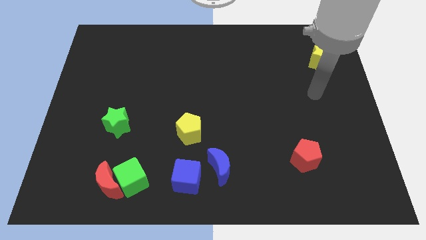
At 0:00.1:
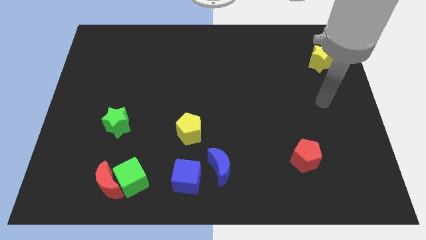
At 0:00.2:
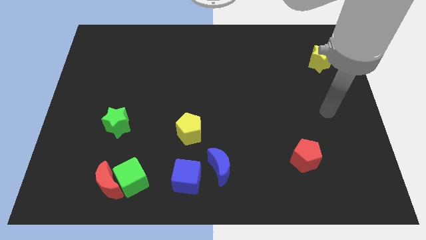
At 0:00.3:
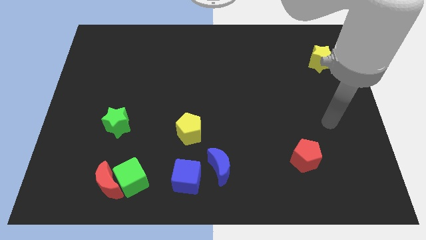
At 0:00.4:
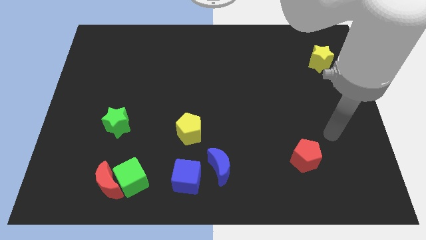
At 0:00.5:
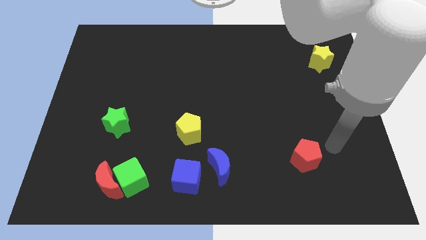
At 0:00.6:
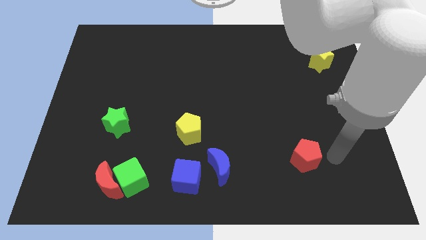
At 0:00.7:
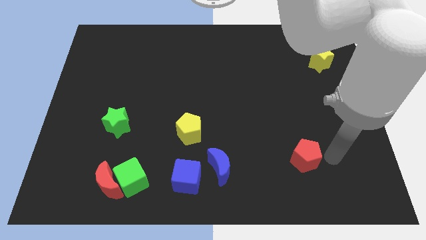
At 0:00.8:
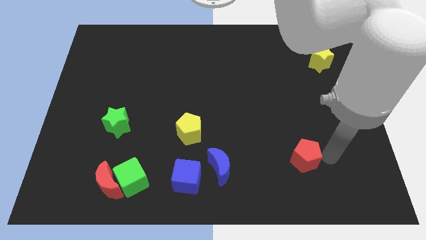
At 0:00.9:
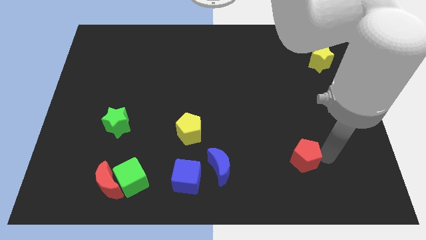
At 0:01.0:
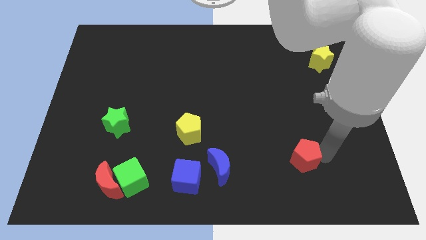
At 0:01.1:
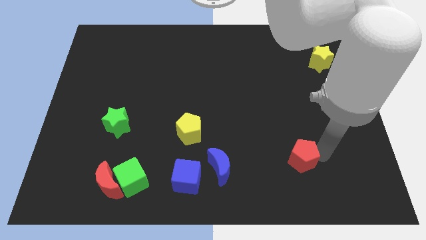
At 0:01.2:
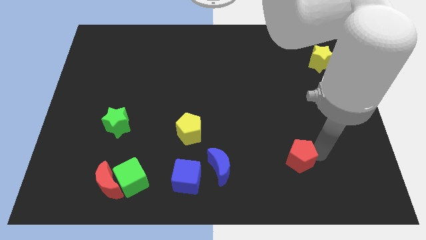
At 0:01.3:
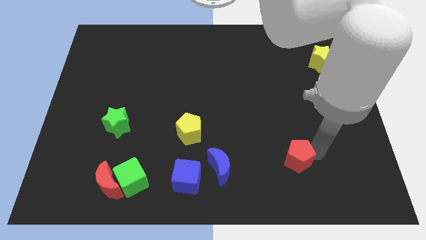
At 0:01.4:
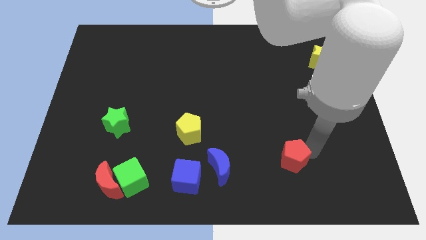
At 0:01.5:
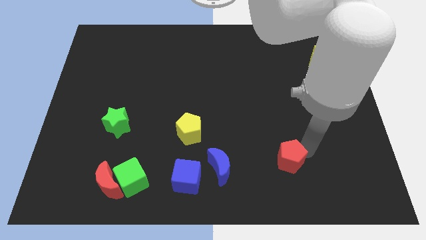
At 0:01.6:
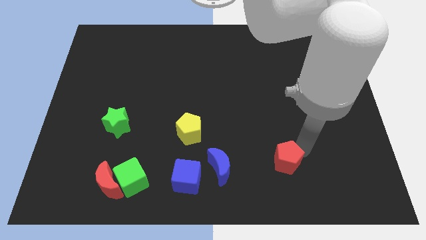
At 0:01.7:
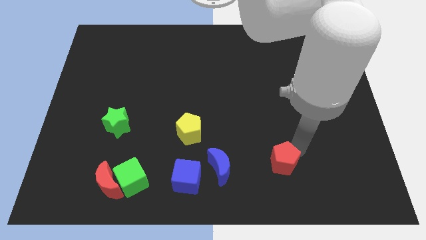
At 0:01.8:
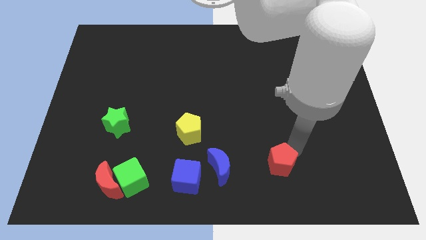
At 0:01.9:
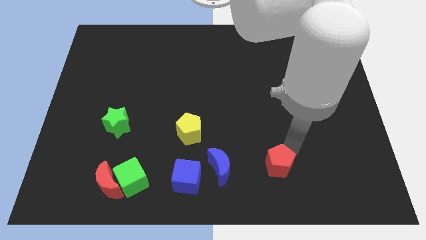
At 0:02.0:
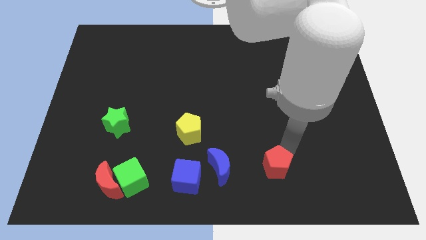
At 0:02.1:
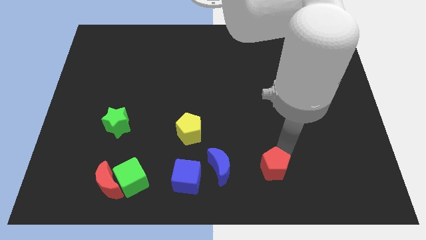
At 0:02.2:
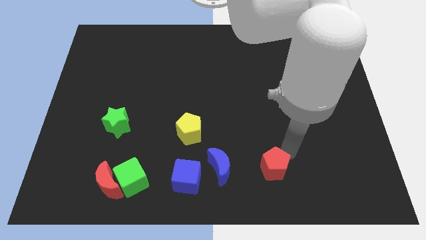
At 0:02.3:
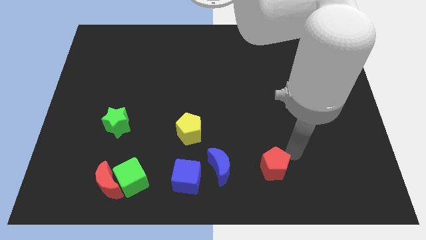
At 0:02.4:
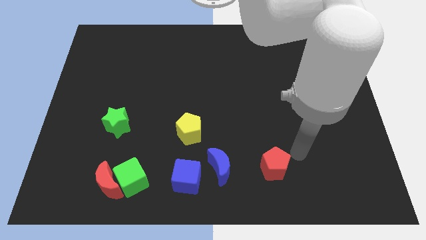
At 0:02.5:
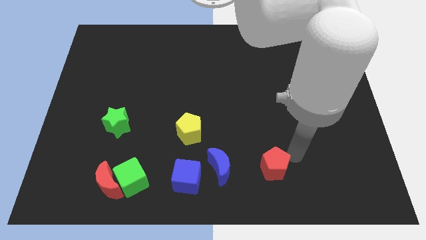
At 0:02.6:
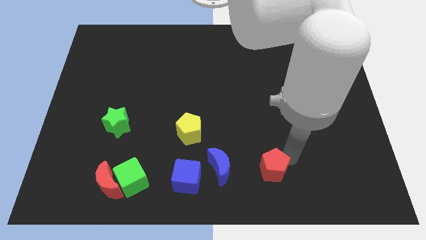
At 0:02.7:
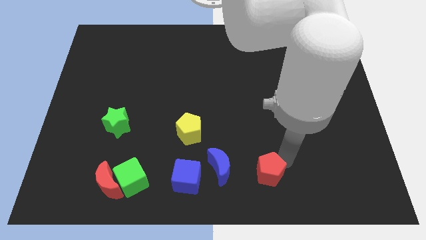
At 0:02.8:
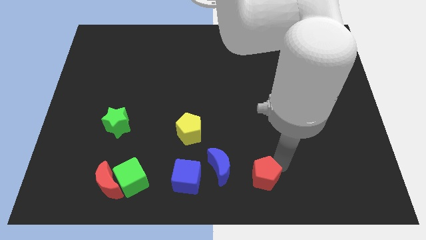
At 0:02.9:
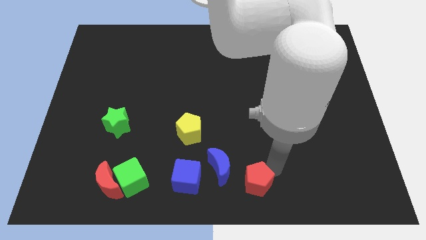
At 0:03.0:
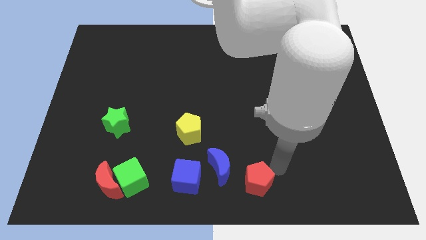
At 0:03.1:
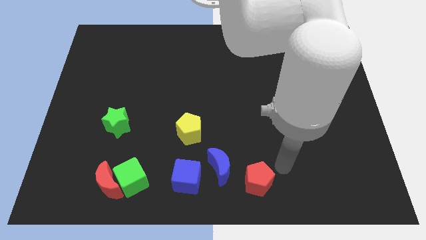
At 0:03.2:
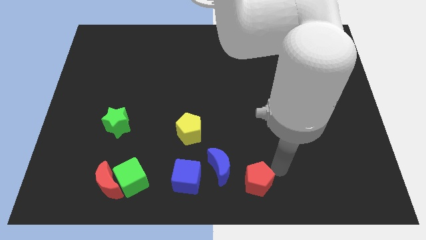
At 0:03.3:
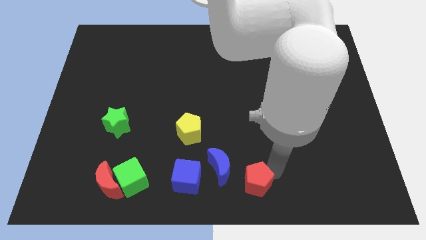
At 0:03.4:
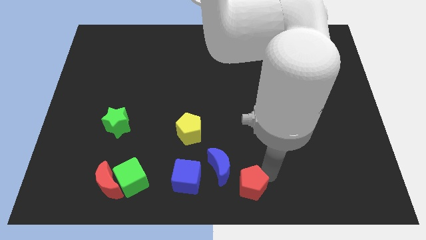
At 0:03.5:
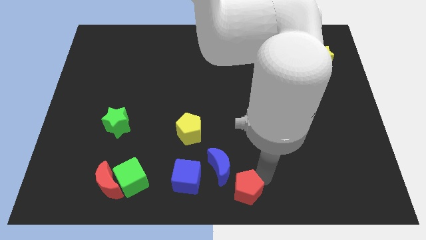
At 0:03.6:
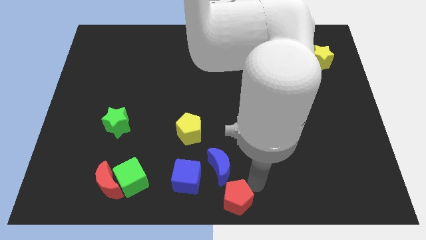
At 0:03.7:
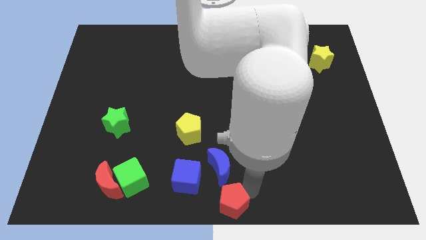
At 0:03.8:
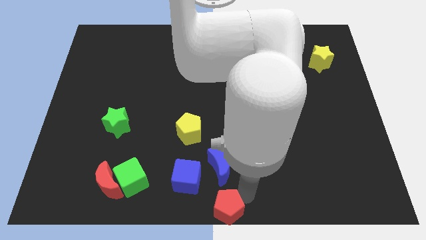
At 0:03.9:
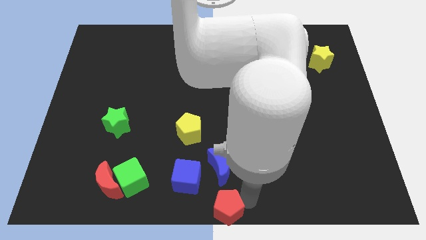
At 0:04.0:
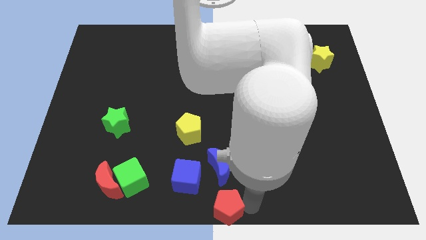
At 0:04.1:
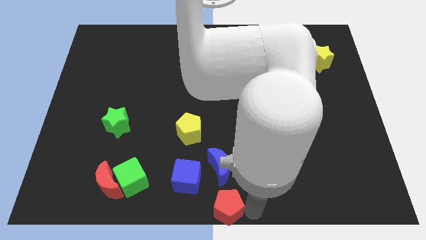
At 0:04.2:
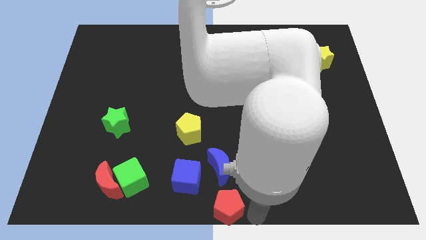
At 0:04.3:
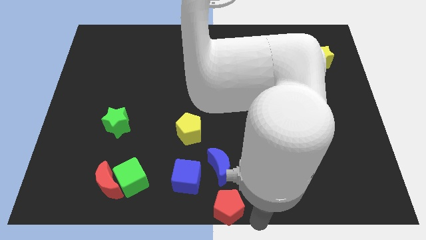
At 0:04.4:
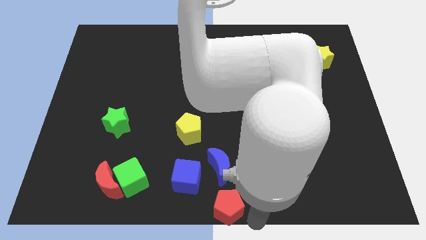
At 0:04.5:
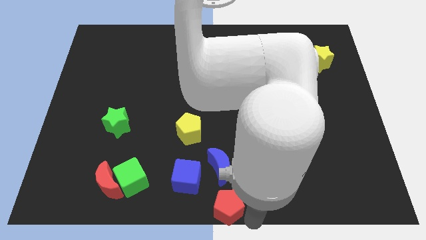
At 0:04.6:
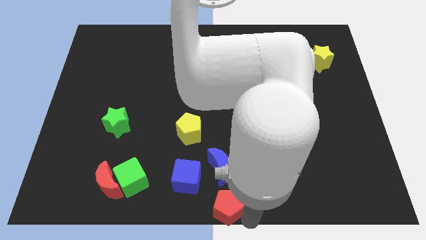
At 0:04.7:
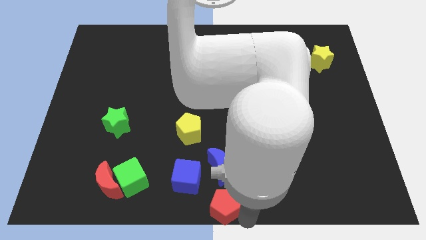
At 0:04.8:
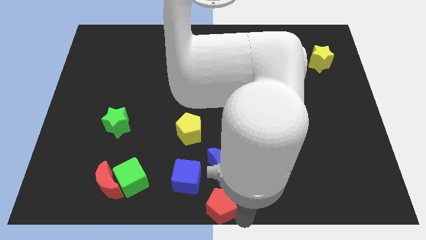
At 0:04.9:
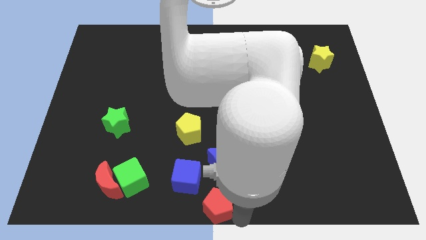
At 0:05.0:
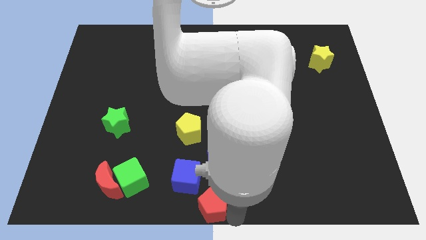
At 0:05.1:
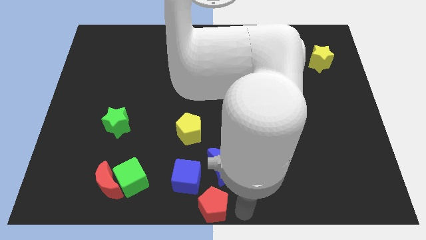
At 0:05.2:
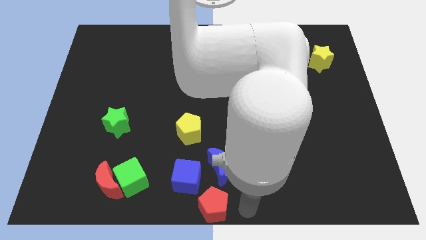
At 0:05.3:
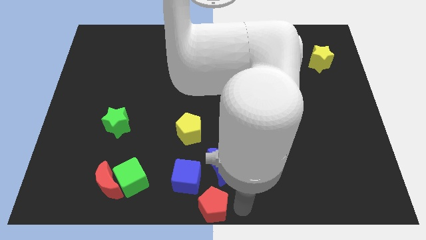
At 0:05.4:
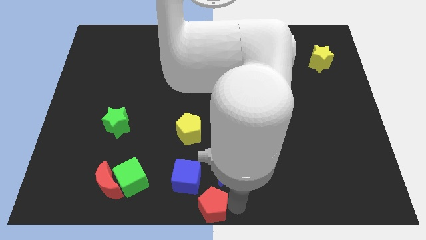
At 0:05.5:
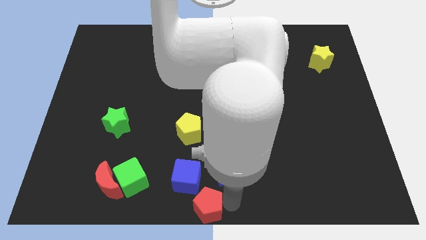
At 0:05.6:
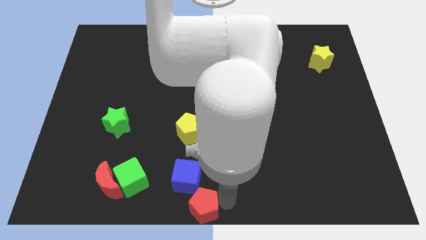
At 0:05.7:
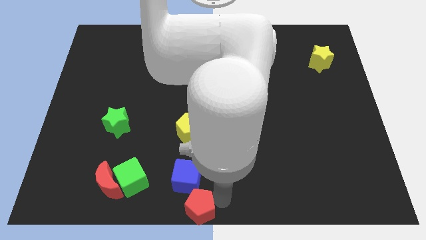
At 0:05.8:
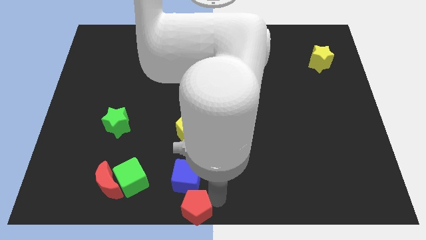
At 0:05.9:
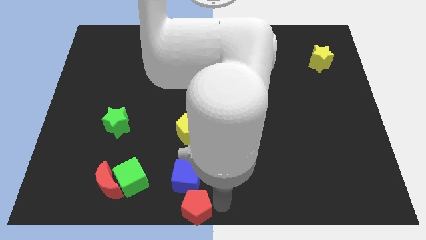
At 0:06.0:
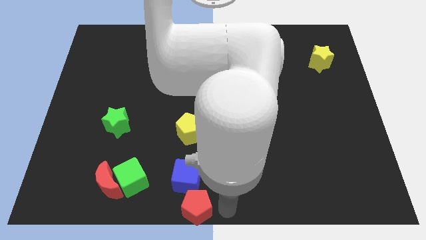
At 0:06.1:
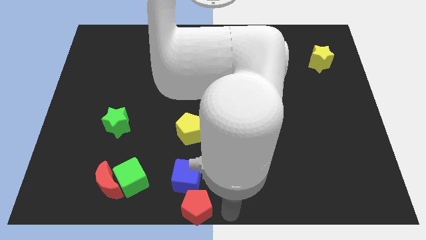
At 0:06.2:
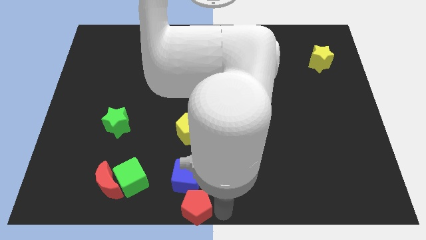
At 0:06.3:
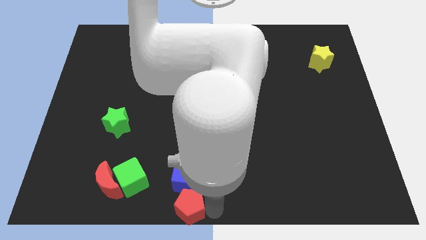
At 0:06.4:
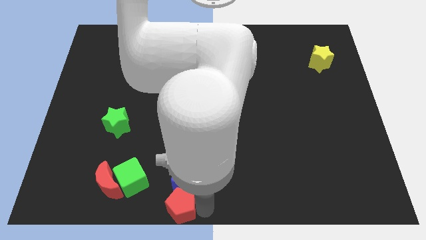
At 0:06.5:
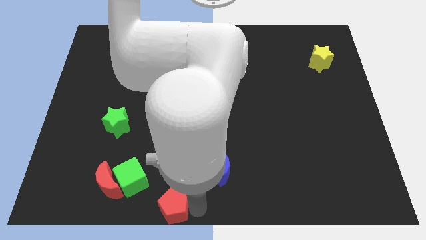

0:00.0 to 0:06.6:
slide the red pentagon to the left

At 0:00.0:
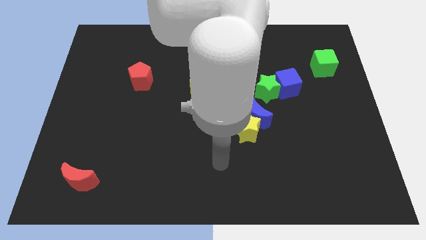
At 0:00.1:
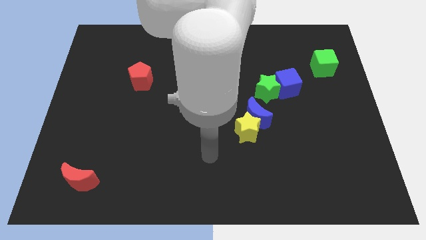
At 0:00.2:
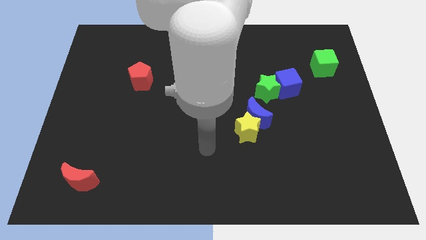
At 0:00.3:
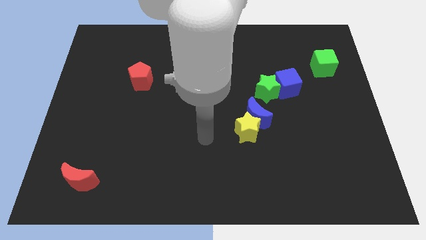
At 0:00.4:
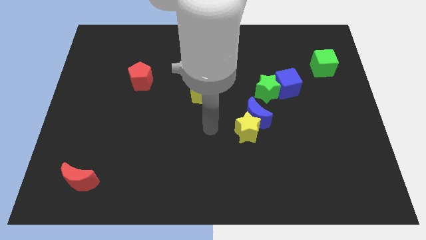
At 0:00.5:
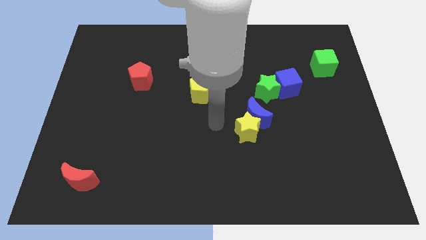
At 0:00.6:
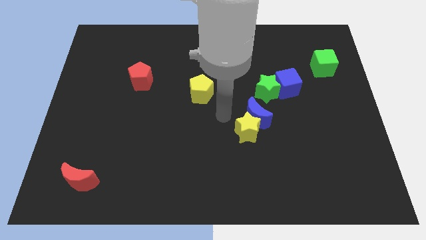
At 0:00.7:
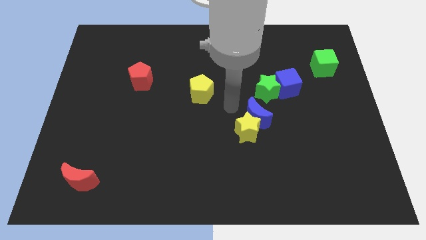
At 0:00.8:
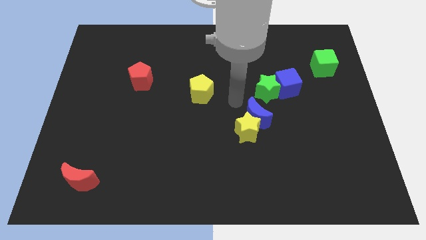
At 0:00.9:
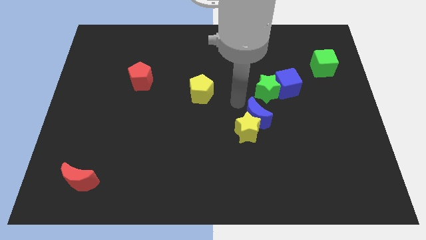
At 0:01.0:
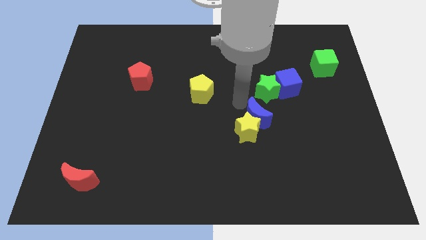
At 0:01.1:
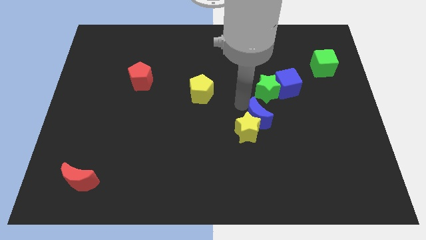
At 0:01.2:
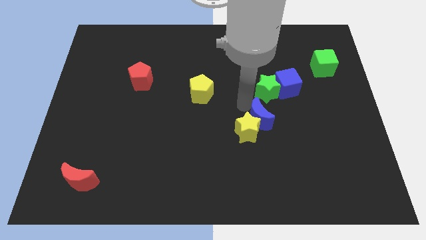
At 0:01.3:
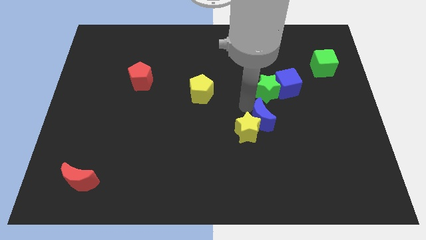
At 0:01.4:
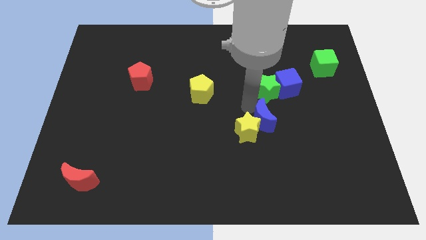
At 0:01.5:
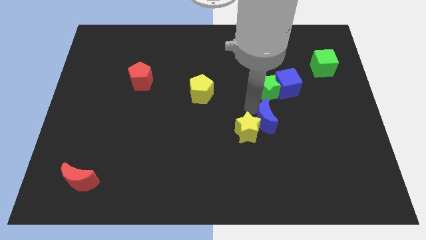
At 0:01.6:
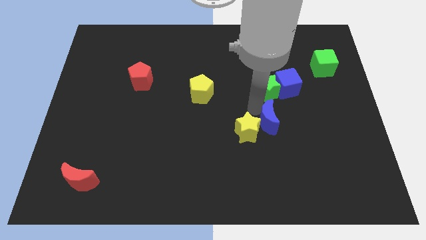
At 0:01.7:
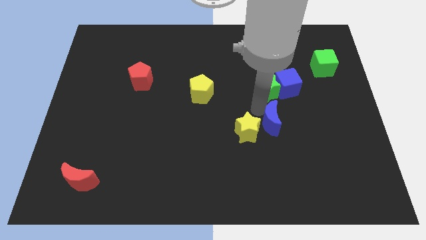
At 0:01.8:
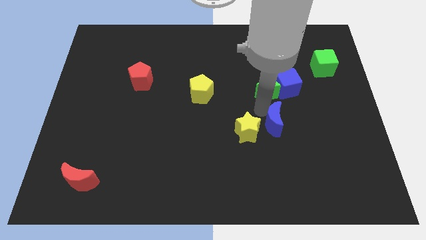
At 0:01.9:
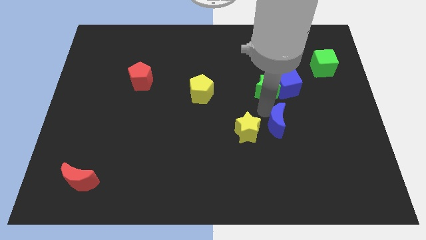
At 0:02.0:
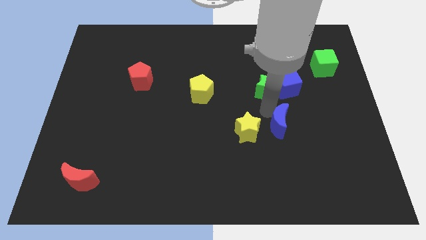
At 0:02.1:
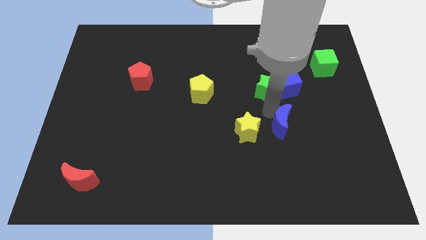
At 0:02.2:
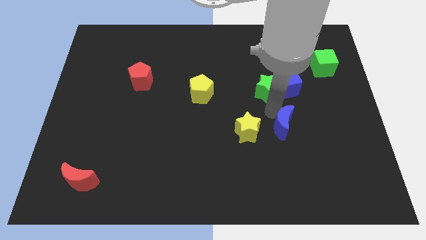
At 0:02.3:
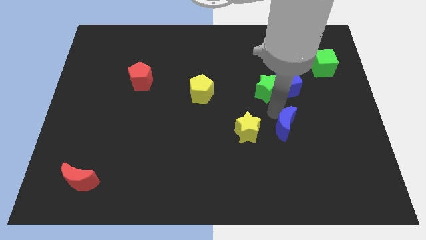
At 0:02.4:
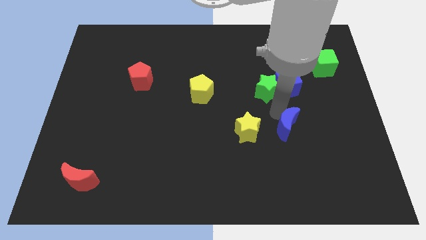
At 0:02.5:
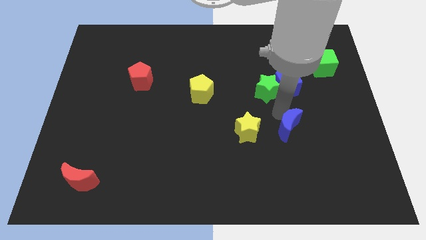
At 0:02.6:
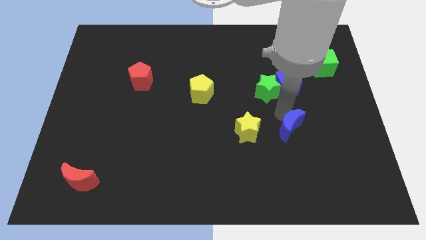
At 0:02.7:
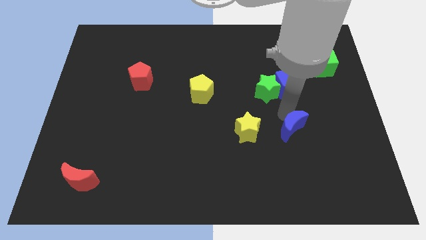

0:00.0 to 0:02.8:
move the blue moon down and right somewhat
